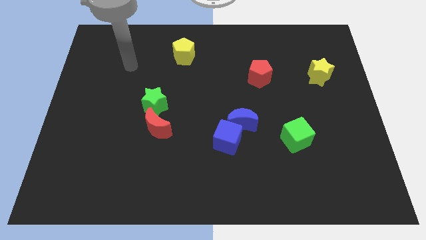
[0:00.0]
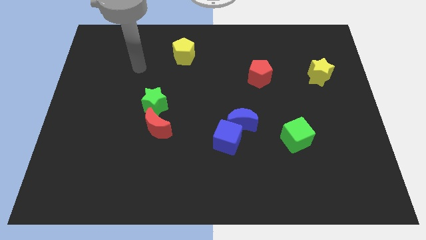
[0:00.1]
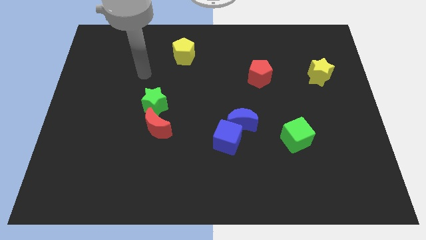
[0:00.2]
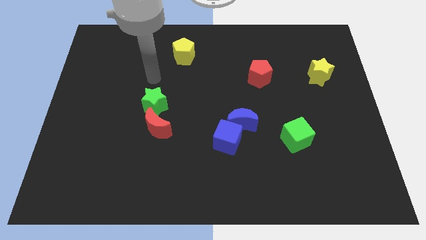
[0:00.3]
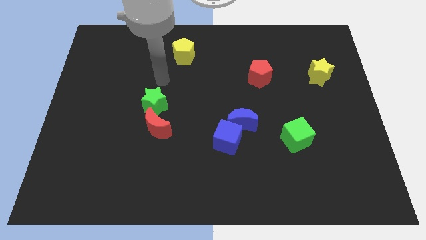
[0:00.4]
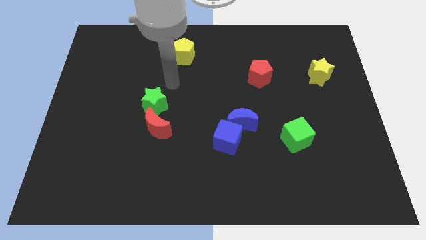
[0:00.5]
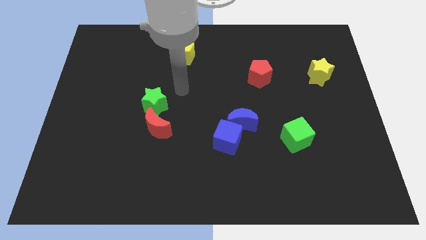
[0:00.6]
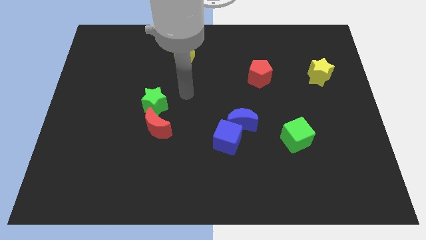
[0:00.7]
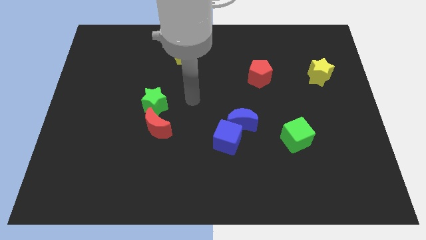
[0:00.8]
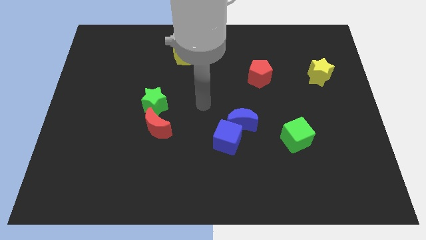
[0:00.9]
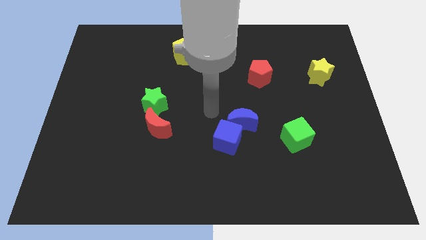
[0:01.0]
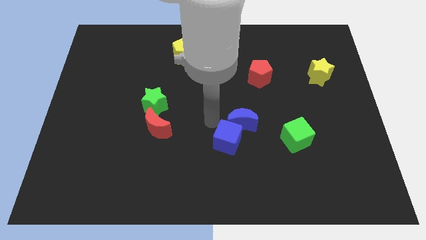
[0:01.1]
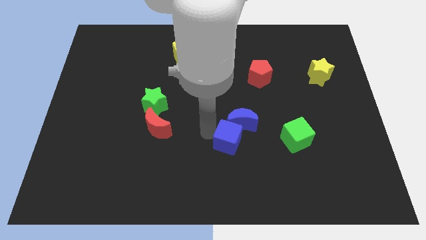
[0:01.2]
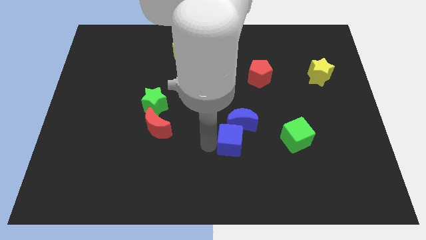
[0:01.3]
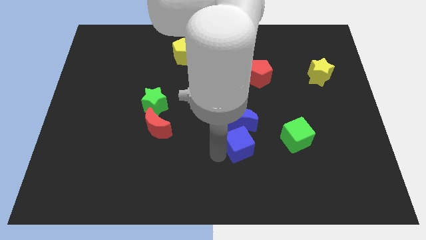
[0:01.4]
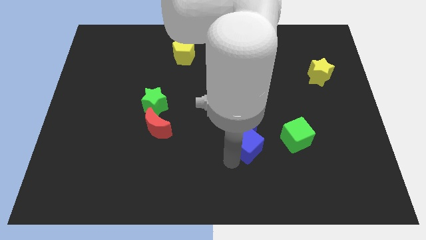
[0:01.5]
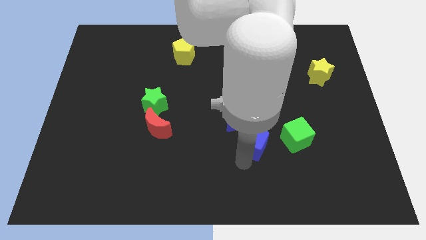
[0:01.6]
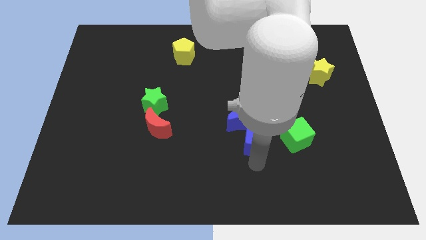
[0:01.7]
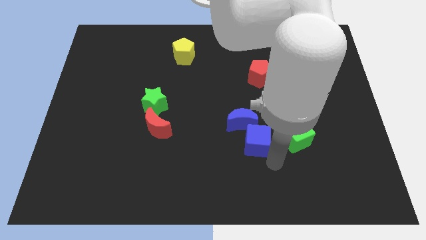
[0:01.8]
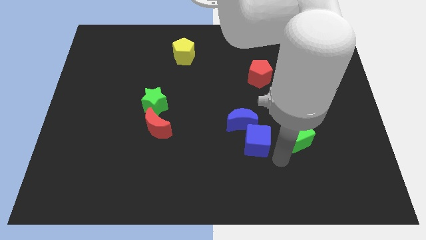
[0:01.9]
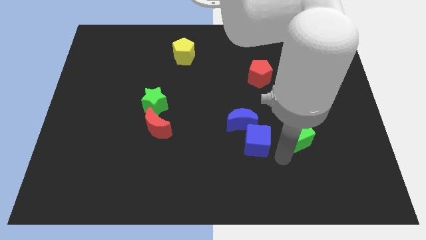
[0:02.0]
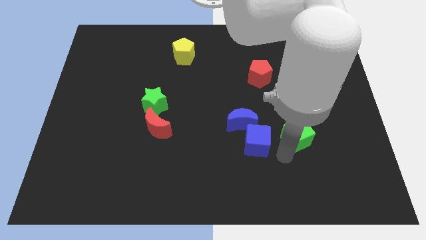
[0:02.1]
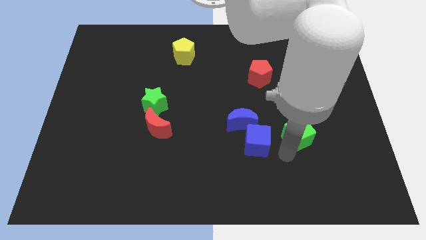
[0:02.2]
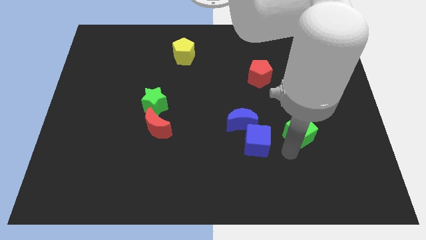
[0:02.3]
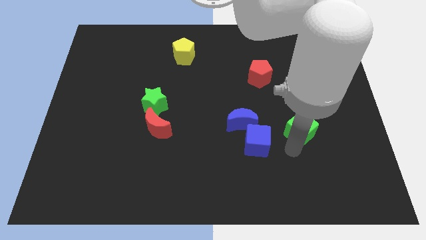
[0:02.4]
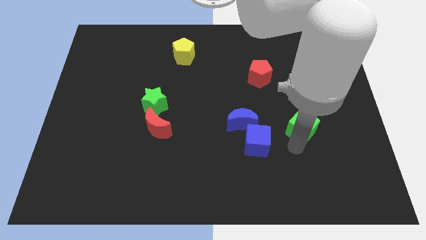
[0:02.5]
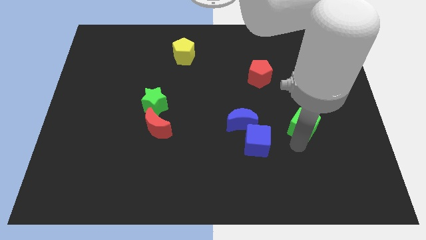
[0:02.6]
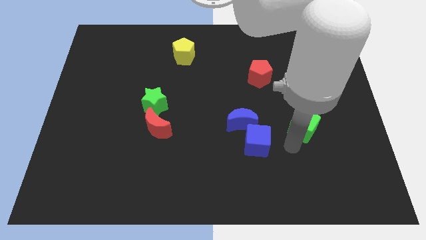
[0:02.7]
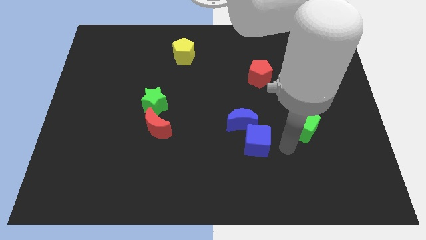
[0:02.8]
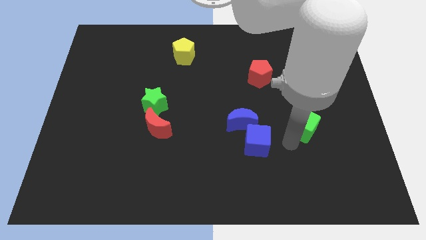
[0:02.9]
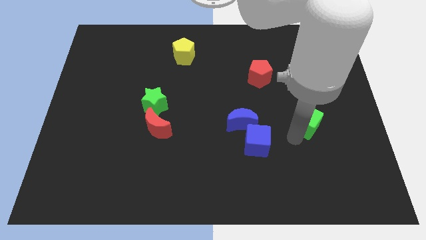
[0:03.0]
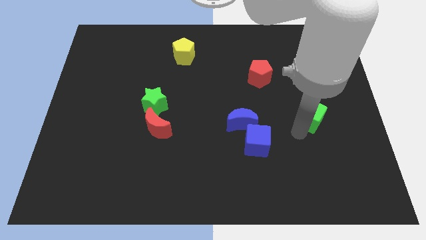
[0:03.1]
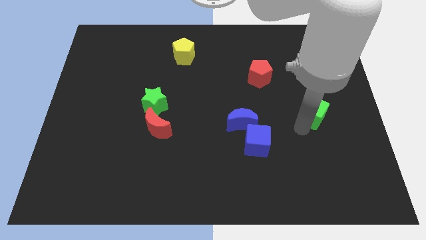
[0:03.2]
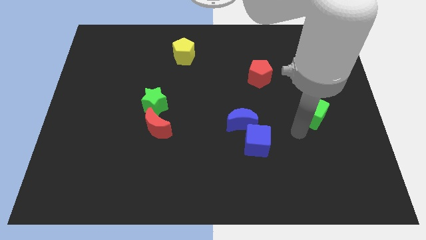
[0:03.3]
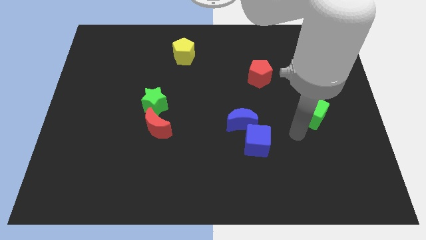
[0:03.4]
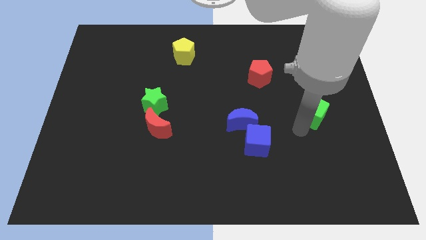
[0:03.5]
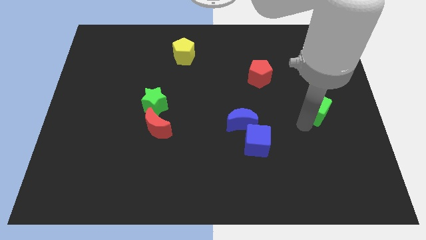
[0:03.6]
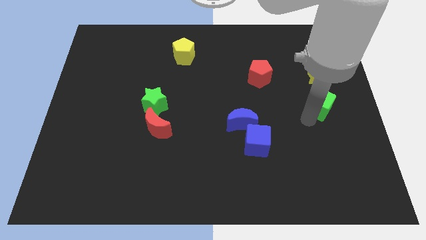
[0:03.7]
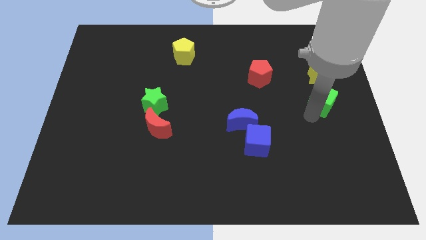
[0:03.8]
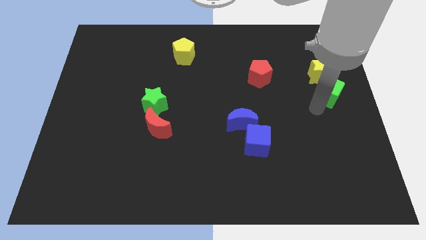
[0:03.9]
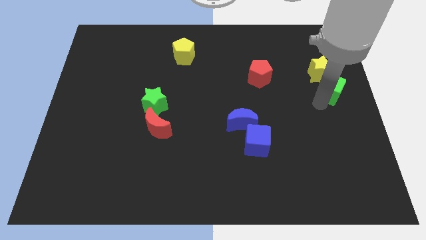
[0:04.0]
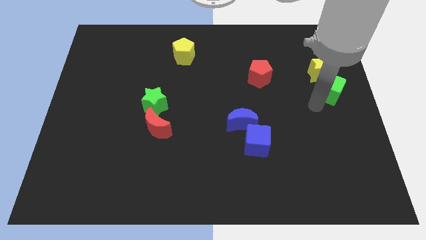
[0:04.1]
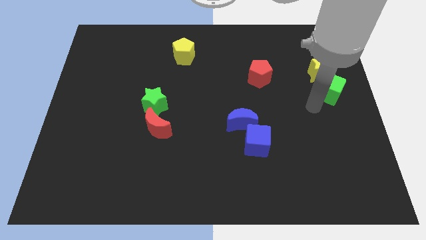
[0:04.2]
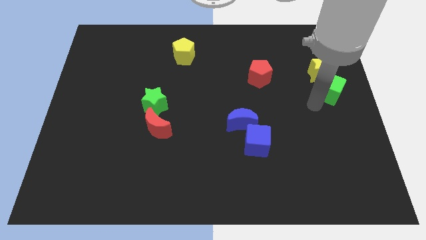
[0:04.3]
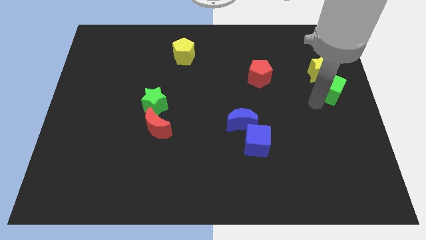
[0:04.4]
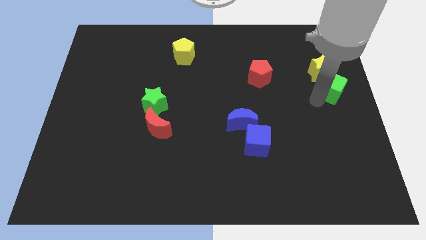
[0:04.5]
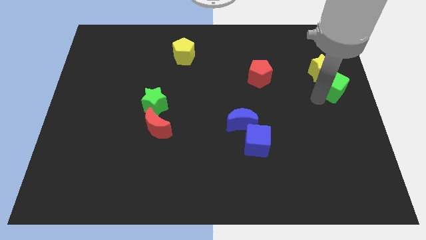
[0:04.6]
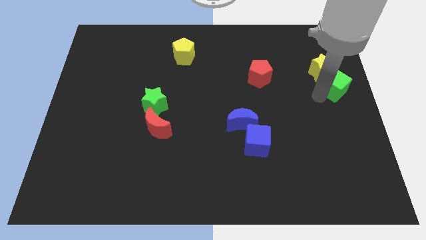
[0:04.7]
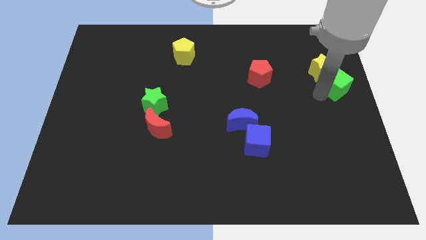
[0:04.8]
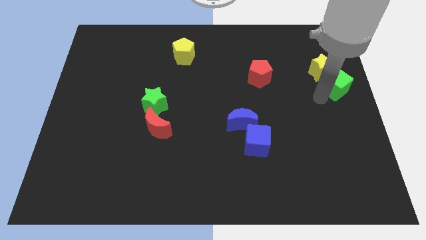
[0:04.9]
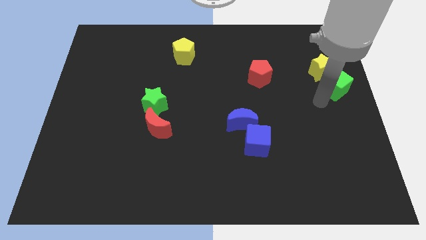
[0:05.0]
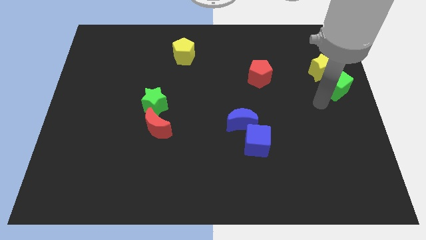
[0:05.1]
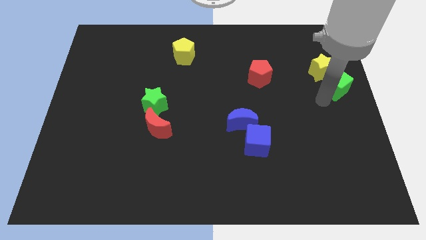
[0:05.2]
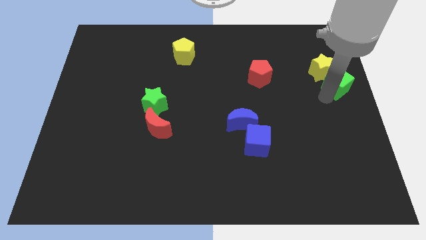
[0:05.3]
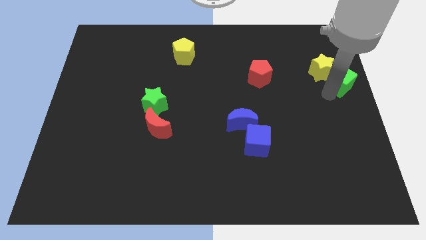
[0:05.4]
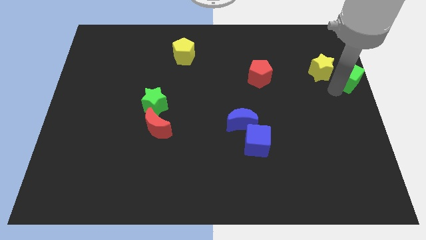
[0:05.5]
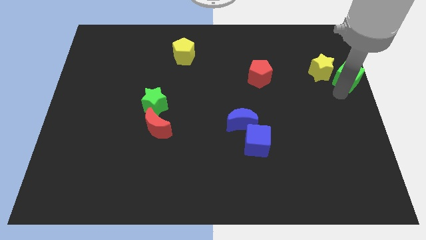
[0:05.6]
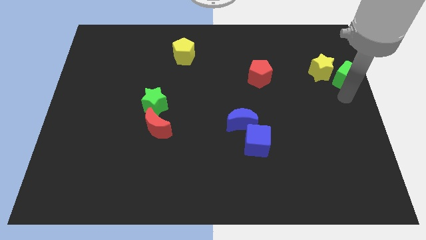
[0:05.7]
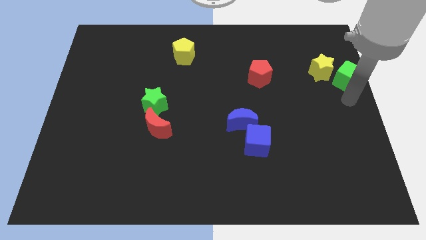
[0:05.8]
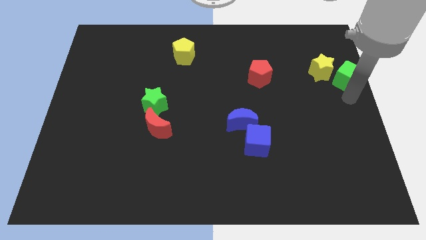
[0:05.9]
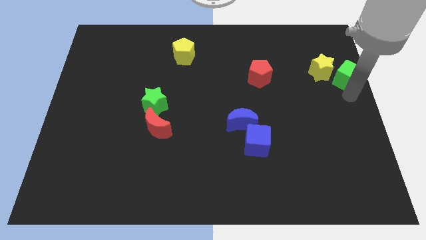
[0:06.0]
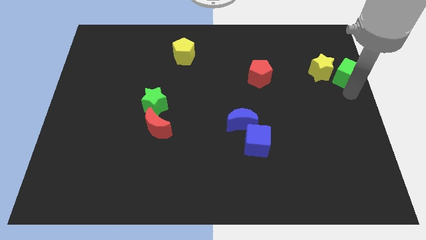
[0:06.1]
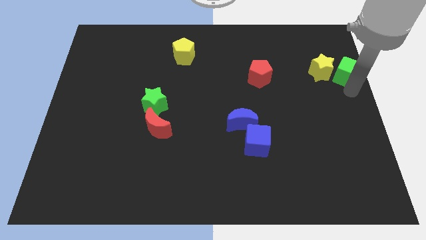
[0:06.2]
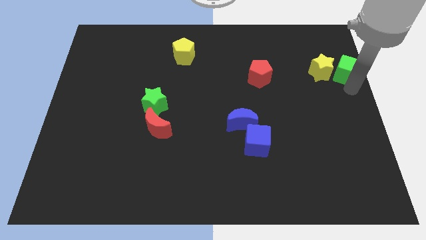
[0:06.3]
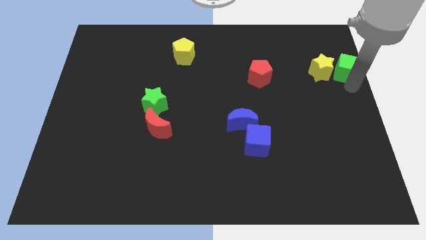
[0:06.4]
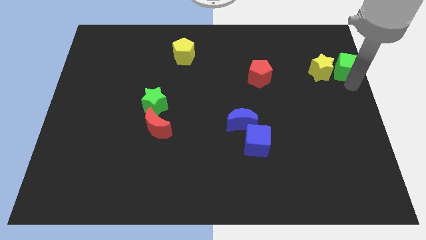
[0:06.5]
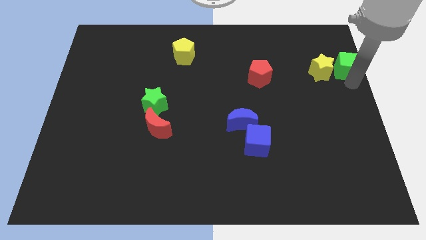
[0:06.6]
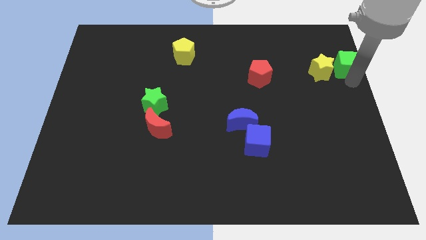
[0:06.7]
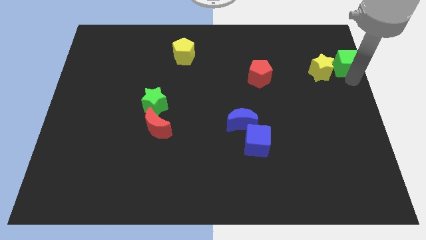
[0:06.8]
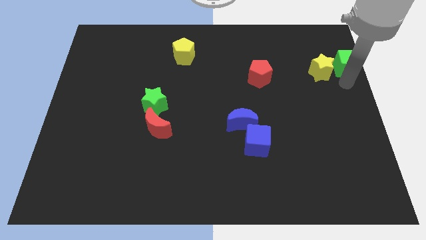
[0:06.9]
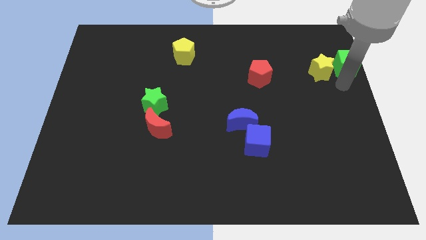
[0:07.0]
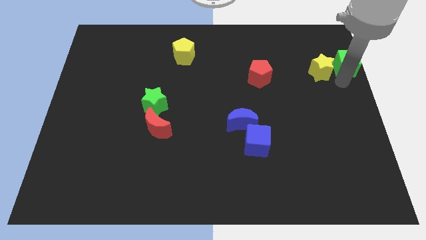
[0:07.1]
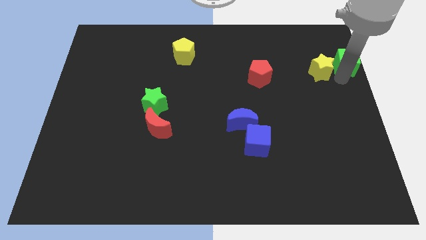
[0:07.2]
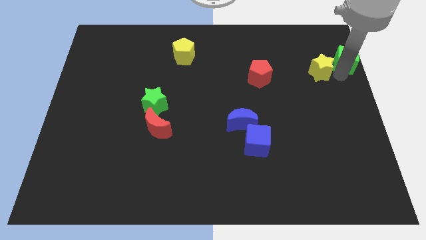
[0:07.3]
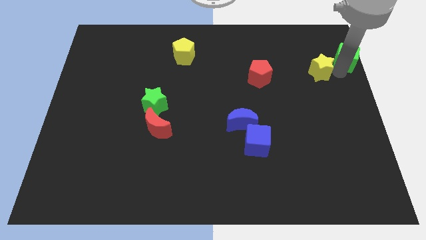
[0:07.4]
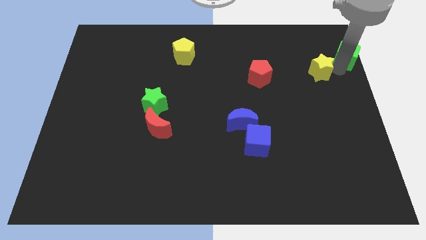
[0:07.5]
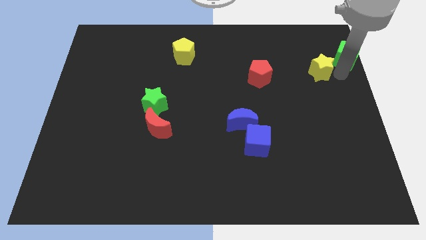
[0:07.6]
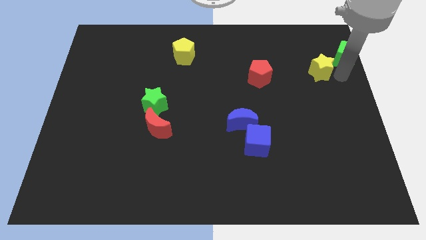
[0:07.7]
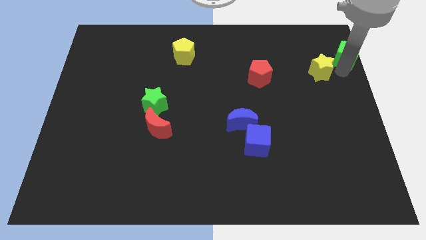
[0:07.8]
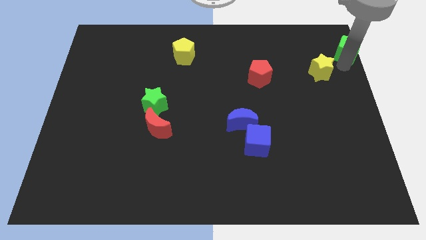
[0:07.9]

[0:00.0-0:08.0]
push the green cube to the upper right corner

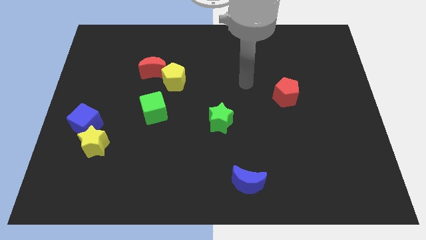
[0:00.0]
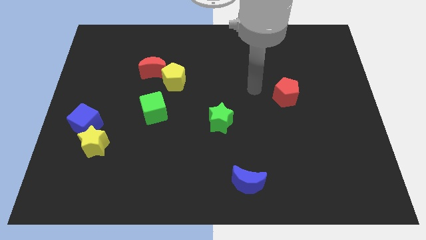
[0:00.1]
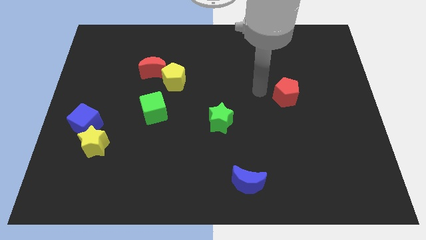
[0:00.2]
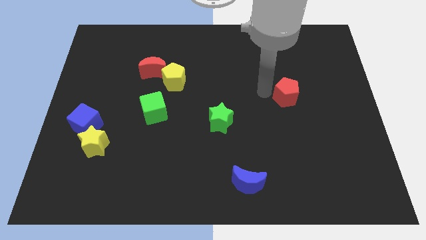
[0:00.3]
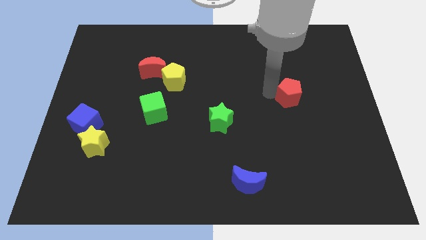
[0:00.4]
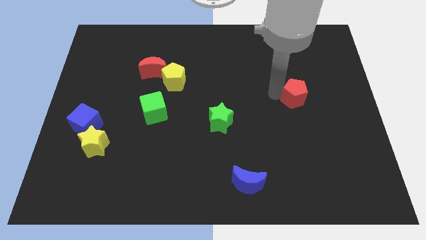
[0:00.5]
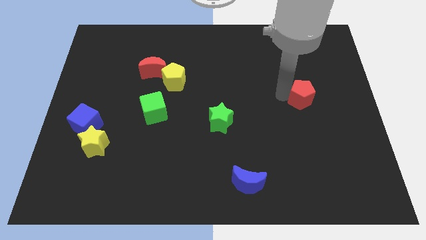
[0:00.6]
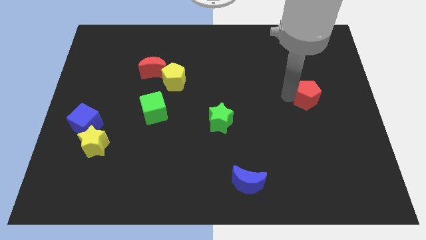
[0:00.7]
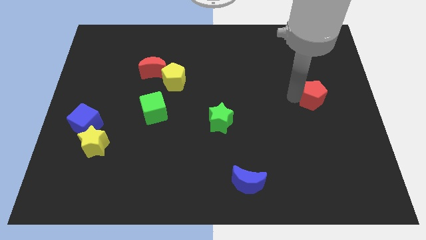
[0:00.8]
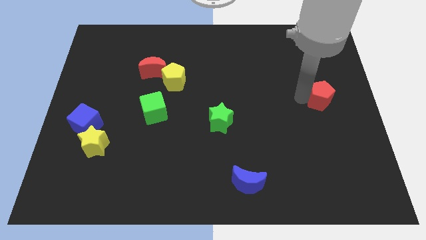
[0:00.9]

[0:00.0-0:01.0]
move the red pentagon to the center right
